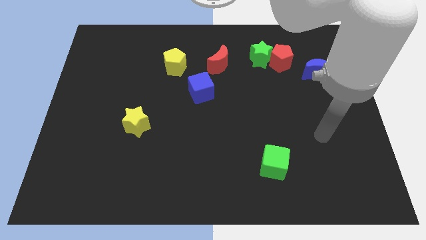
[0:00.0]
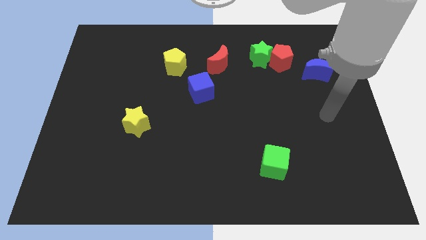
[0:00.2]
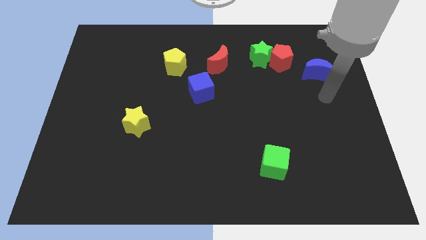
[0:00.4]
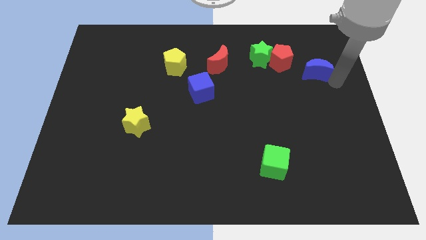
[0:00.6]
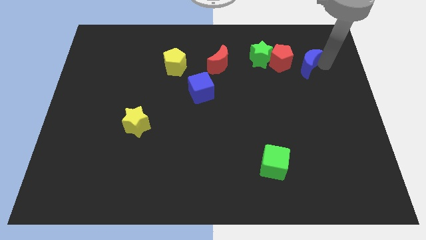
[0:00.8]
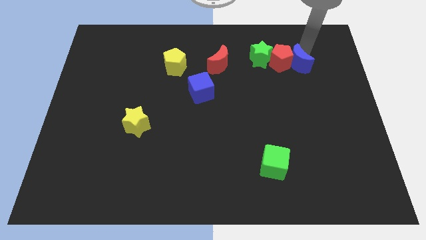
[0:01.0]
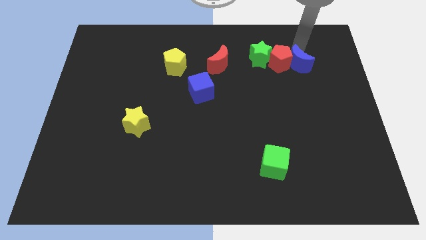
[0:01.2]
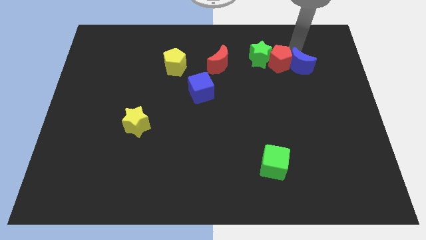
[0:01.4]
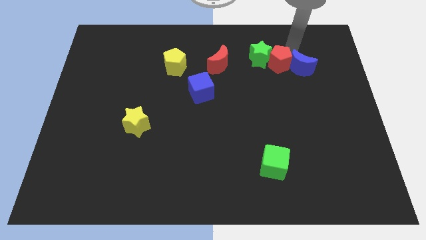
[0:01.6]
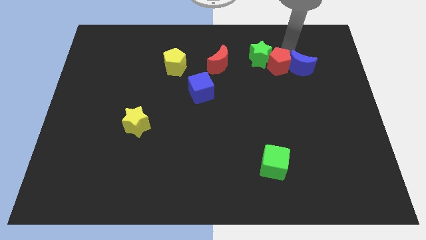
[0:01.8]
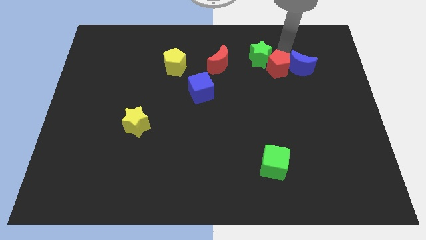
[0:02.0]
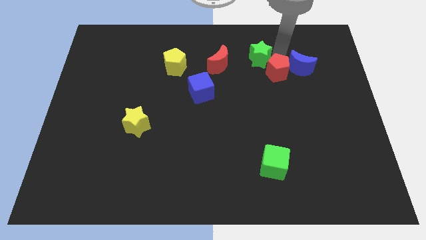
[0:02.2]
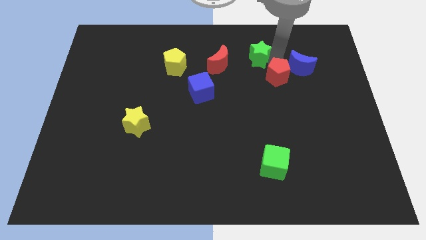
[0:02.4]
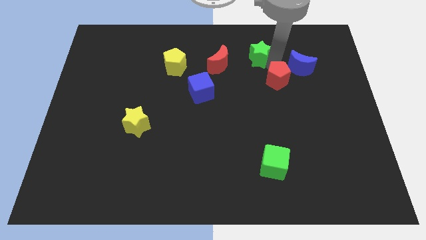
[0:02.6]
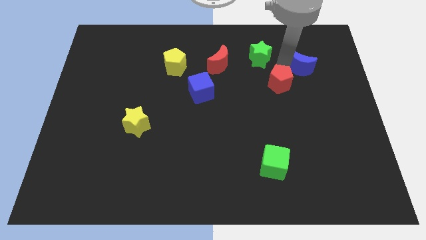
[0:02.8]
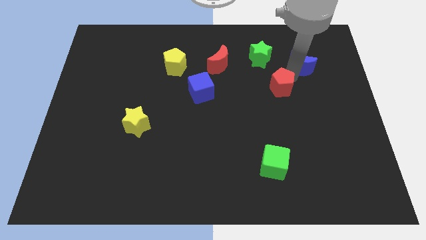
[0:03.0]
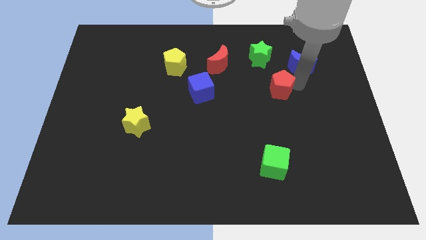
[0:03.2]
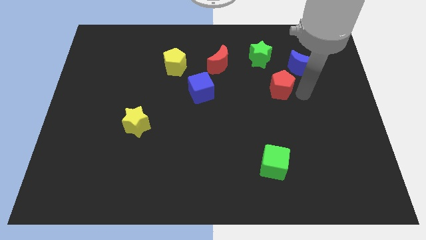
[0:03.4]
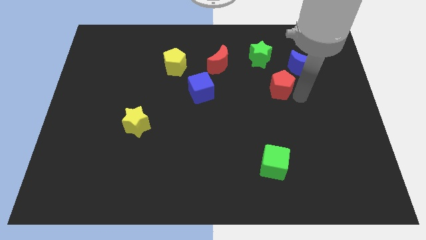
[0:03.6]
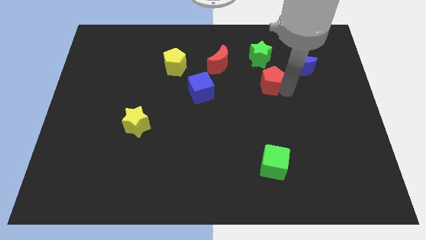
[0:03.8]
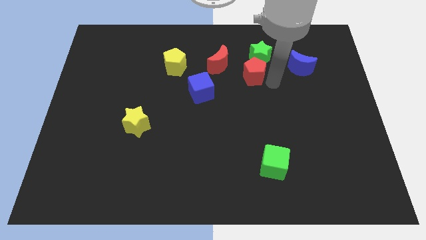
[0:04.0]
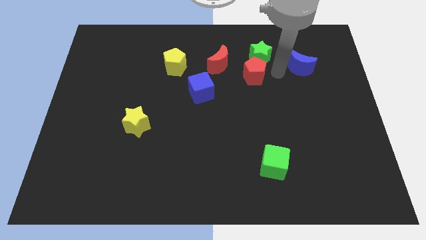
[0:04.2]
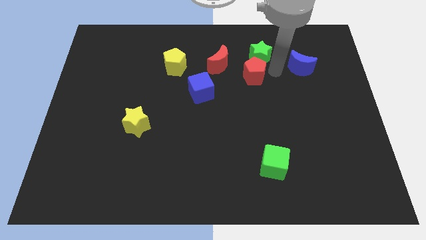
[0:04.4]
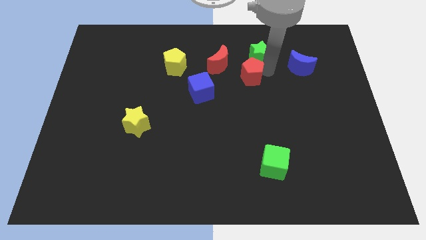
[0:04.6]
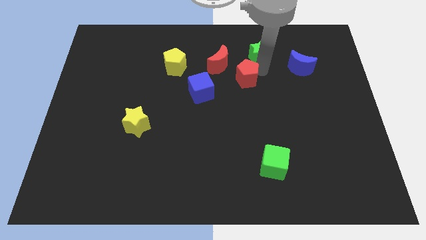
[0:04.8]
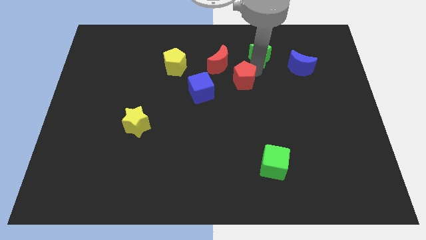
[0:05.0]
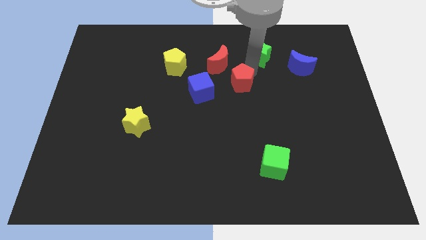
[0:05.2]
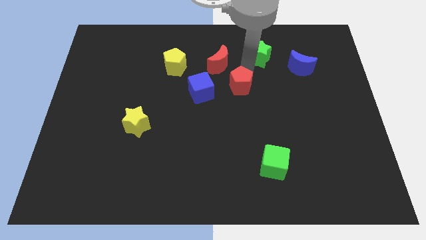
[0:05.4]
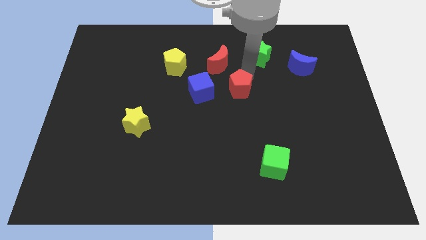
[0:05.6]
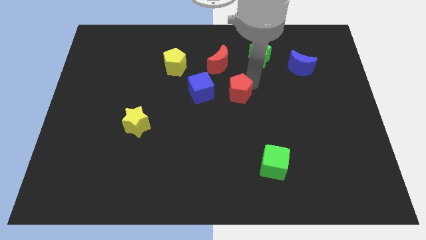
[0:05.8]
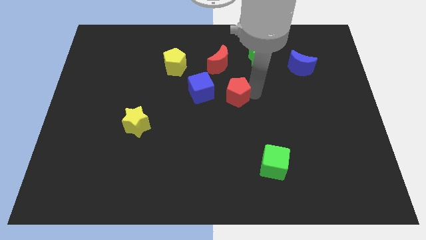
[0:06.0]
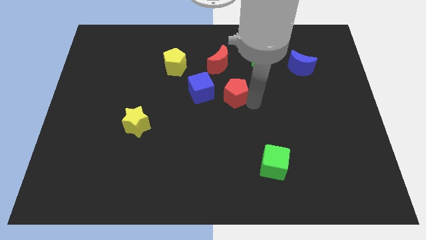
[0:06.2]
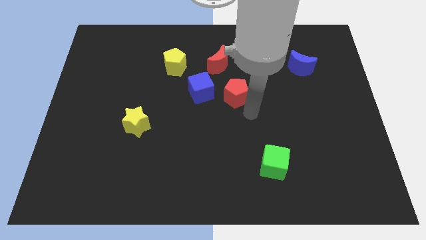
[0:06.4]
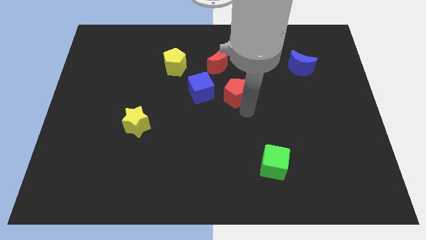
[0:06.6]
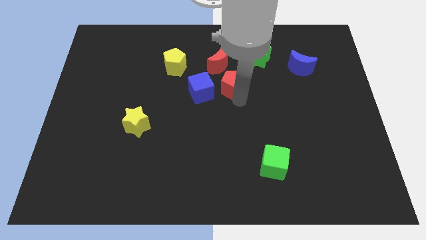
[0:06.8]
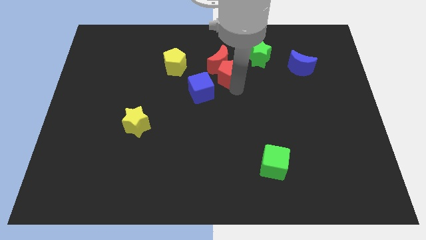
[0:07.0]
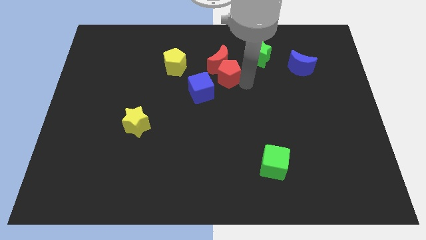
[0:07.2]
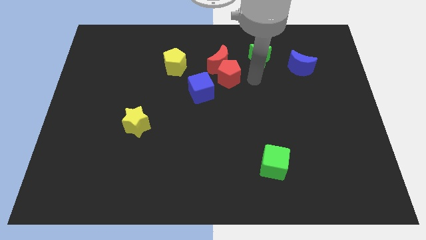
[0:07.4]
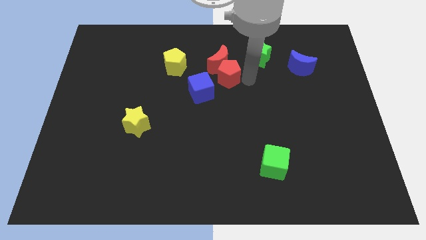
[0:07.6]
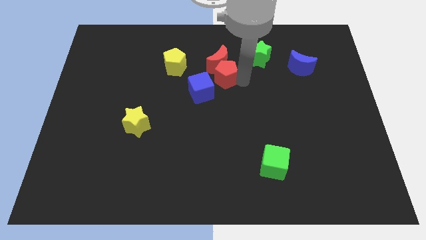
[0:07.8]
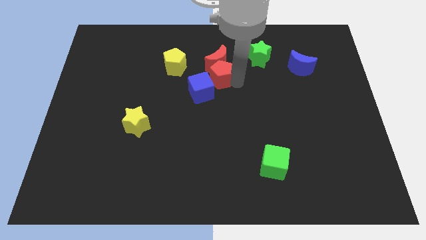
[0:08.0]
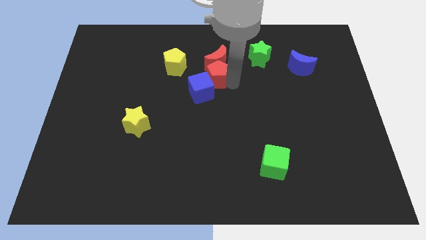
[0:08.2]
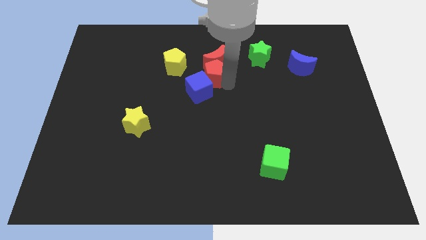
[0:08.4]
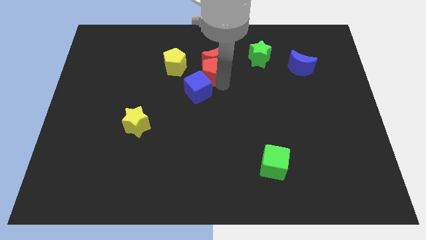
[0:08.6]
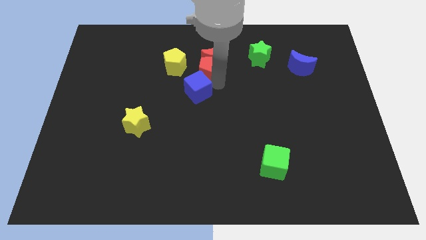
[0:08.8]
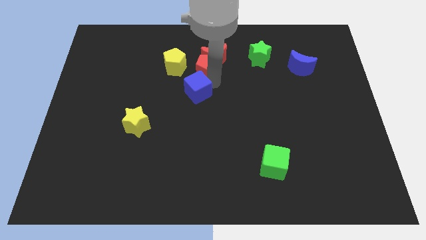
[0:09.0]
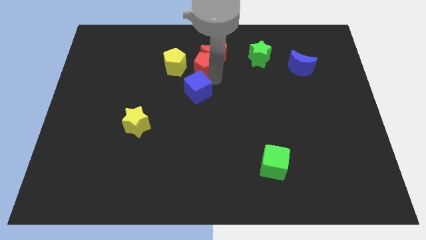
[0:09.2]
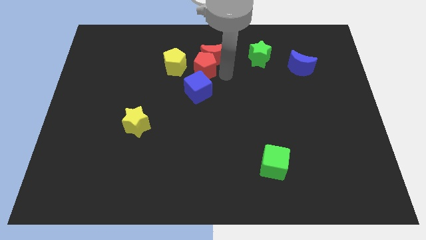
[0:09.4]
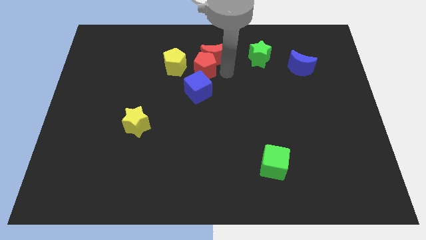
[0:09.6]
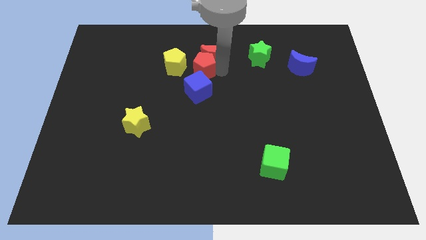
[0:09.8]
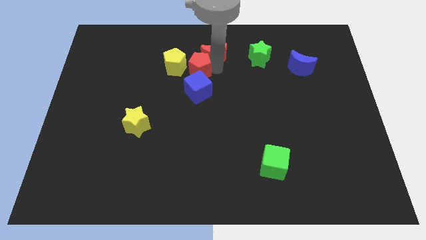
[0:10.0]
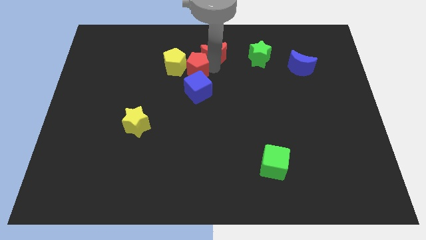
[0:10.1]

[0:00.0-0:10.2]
put the red pentagon close to the yellow pentagon
